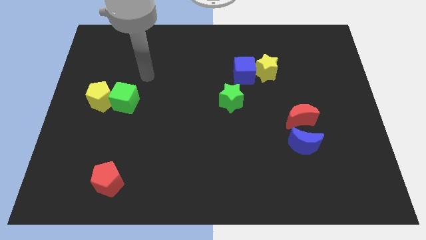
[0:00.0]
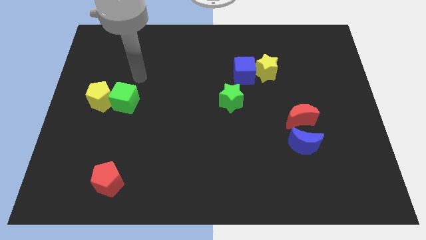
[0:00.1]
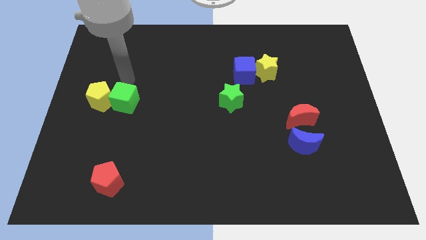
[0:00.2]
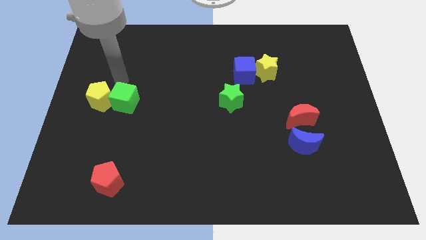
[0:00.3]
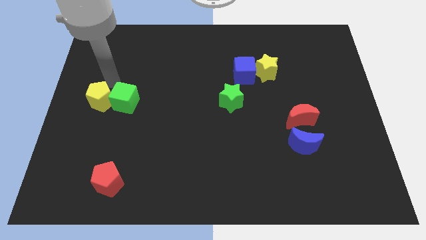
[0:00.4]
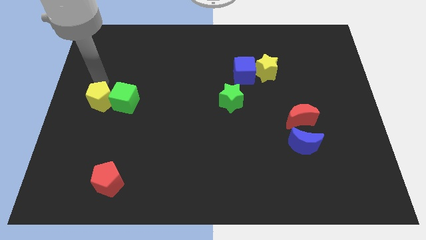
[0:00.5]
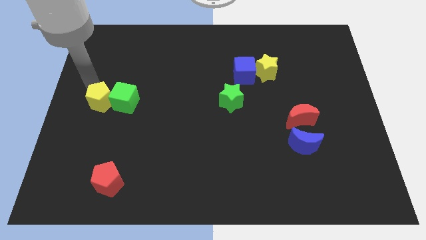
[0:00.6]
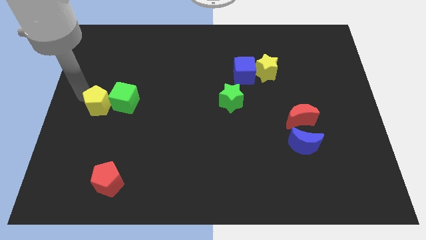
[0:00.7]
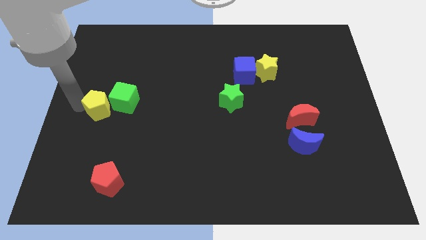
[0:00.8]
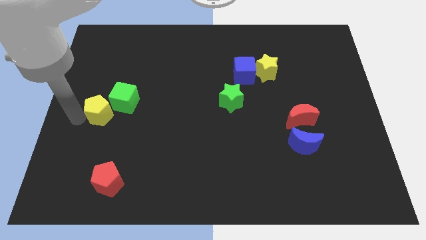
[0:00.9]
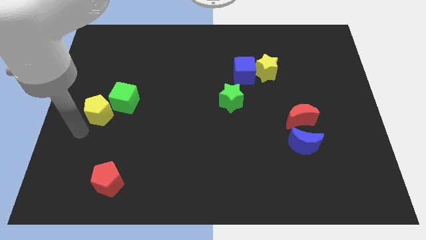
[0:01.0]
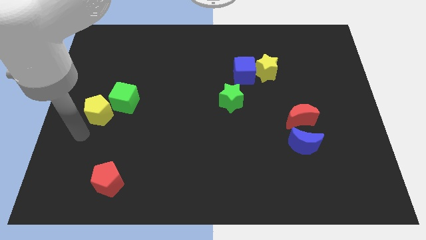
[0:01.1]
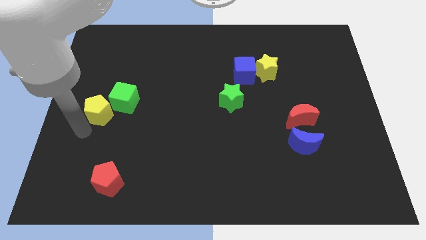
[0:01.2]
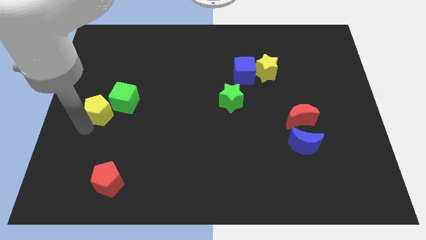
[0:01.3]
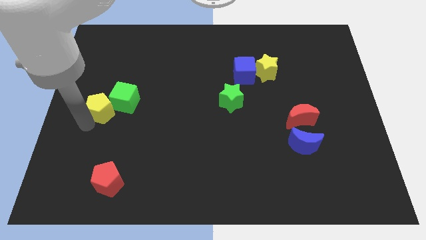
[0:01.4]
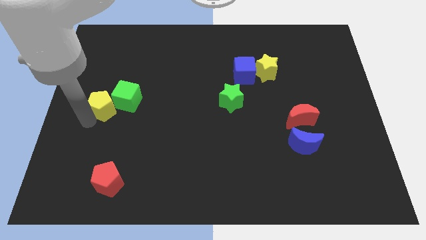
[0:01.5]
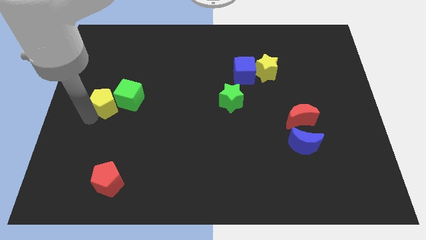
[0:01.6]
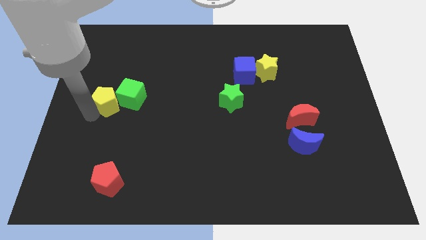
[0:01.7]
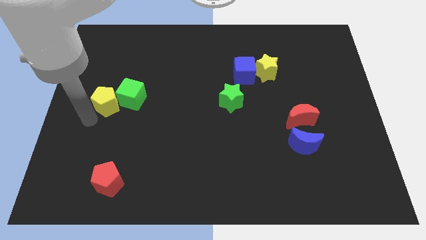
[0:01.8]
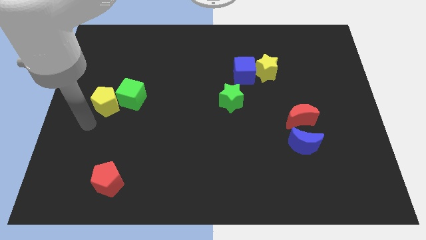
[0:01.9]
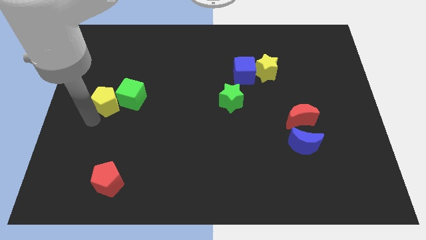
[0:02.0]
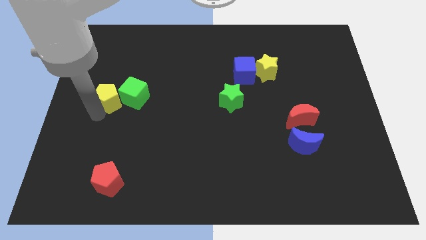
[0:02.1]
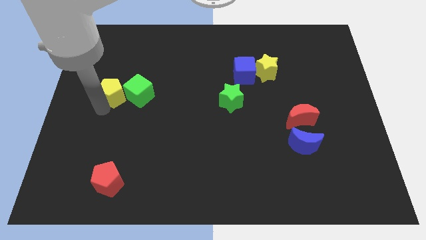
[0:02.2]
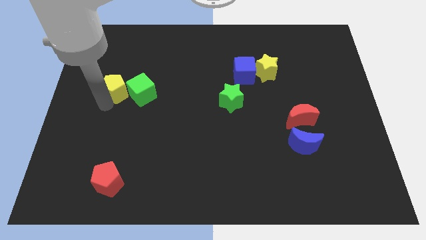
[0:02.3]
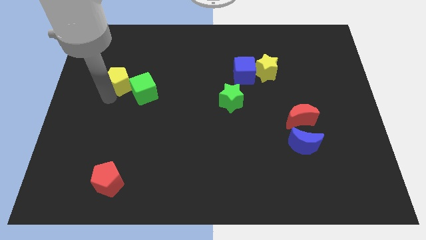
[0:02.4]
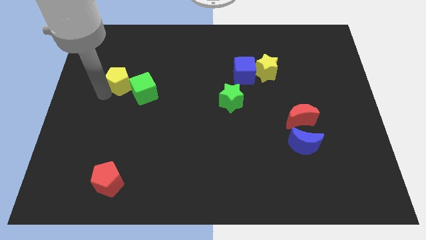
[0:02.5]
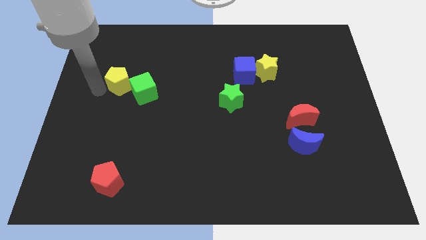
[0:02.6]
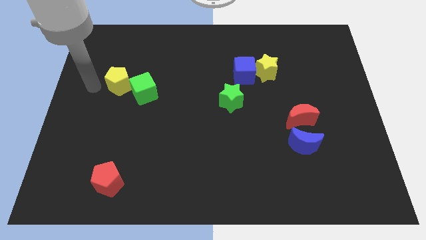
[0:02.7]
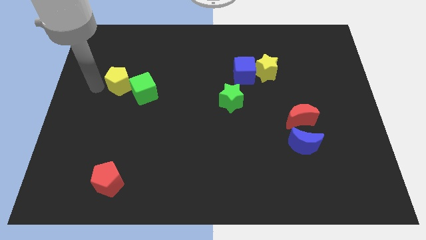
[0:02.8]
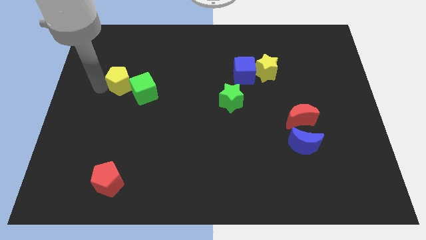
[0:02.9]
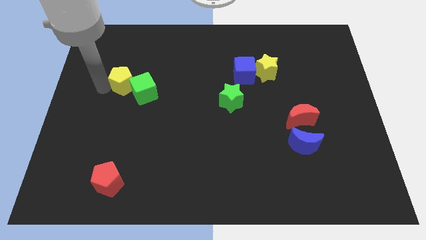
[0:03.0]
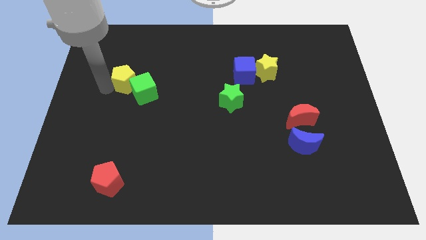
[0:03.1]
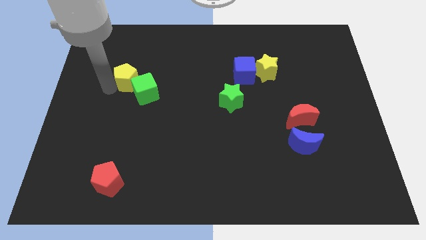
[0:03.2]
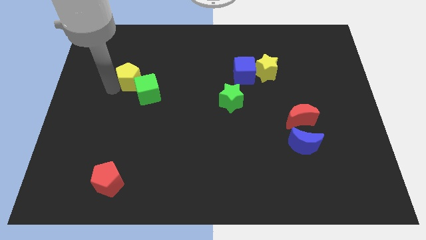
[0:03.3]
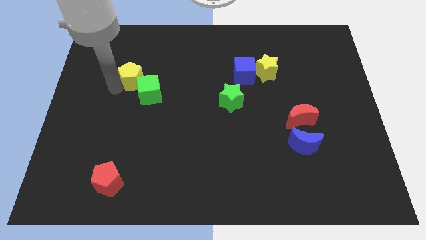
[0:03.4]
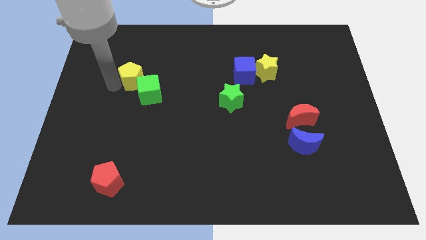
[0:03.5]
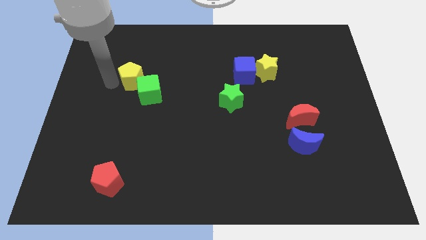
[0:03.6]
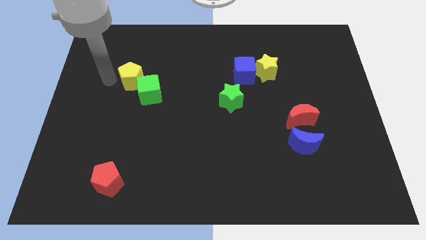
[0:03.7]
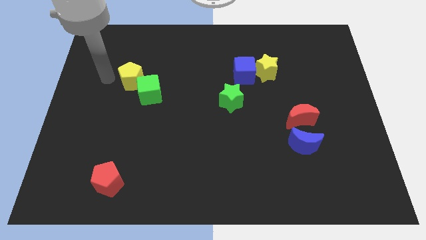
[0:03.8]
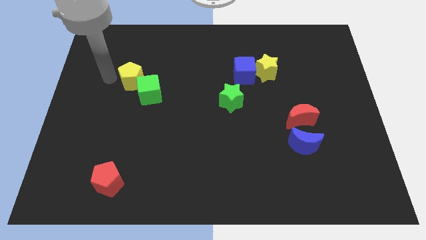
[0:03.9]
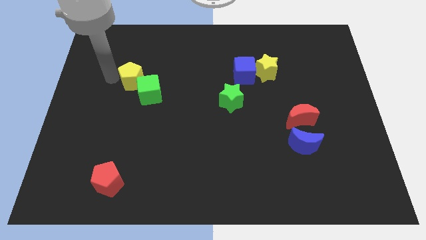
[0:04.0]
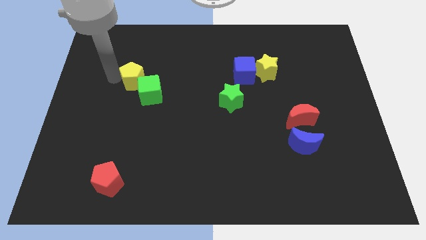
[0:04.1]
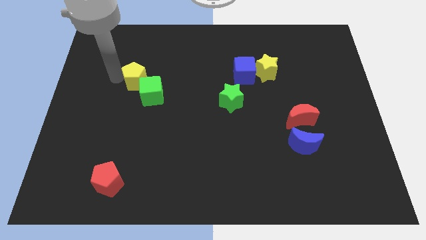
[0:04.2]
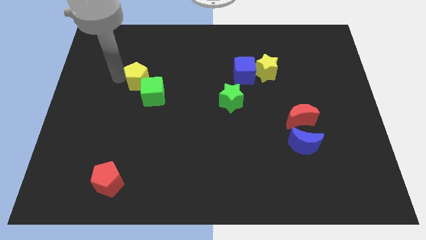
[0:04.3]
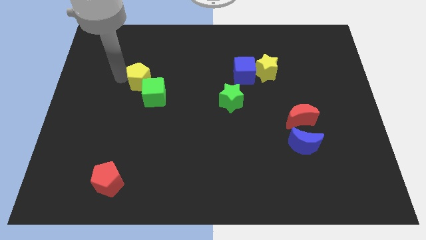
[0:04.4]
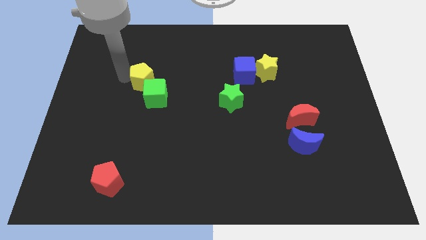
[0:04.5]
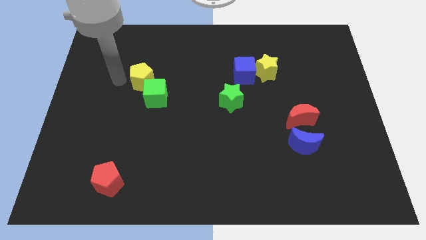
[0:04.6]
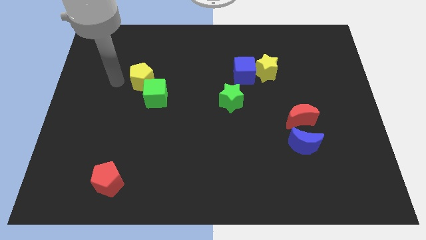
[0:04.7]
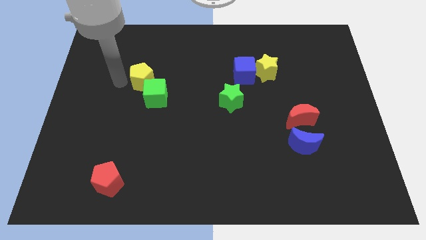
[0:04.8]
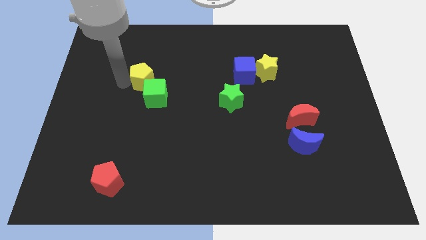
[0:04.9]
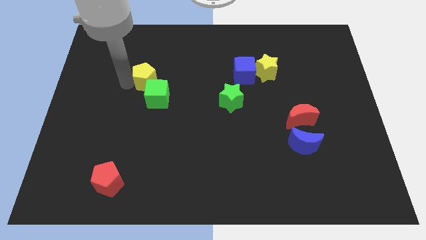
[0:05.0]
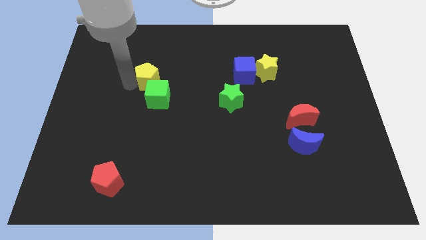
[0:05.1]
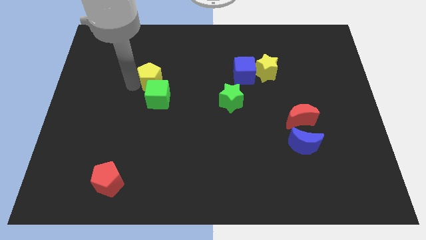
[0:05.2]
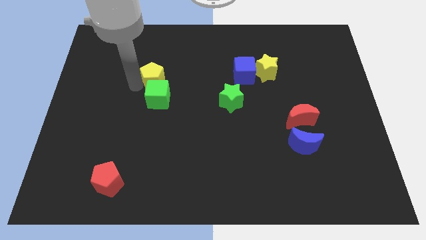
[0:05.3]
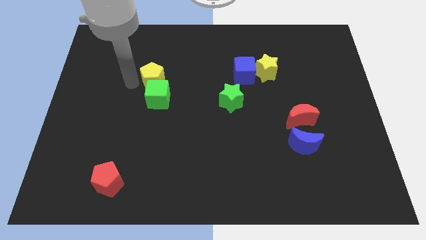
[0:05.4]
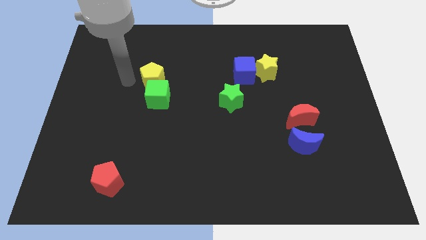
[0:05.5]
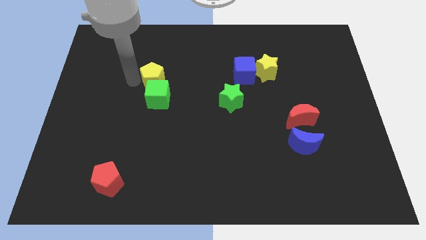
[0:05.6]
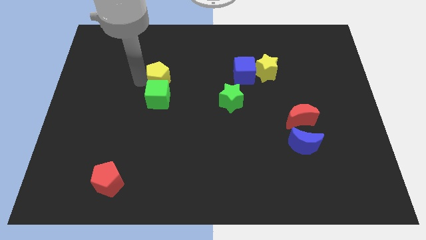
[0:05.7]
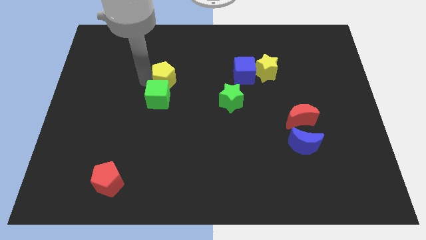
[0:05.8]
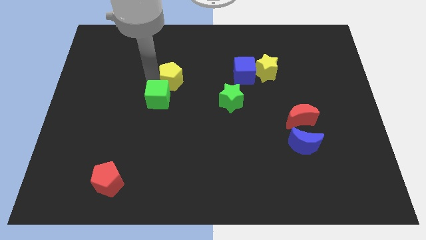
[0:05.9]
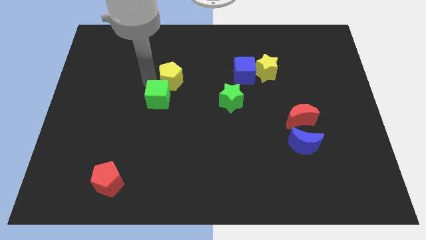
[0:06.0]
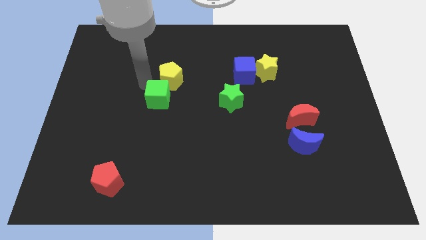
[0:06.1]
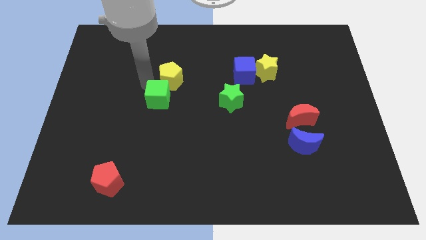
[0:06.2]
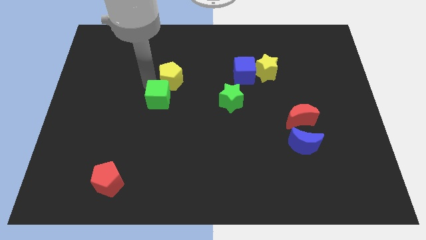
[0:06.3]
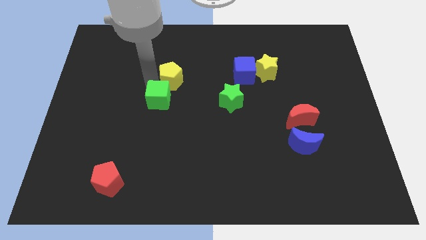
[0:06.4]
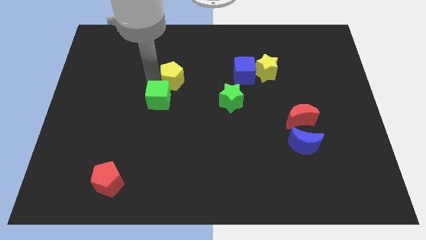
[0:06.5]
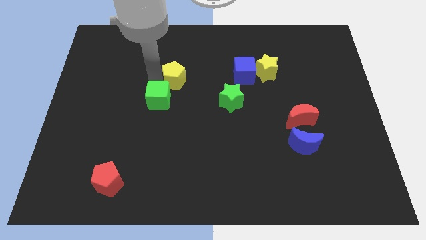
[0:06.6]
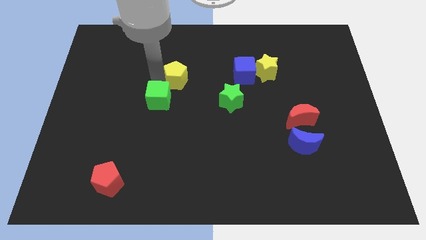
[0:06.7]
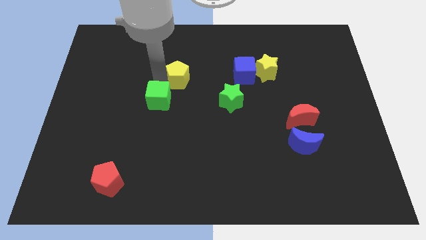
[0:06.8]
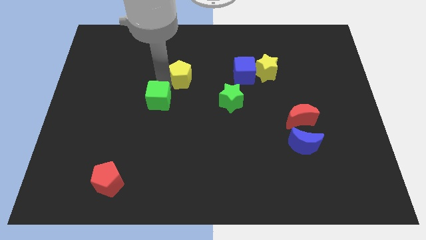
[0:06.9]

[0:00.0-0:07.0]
put the yellow pentagon to the left side of the blue cube
